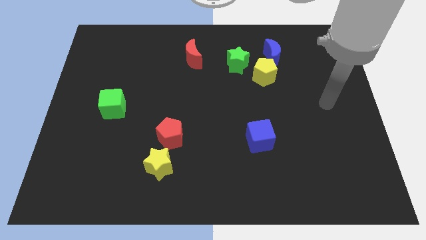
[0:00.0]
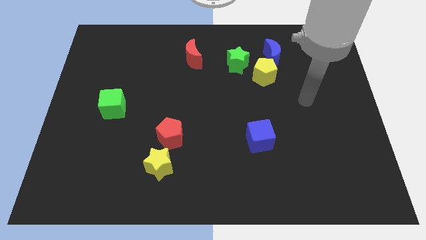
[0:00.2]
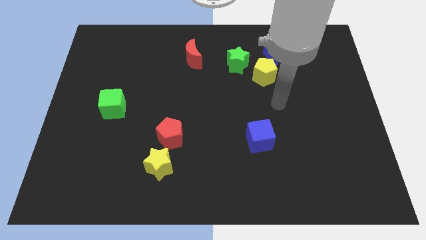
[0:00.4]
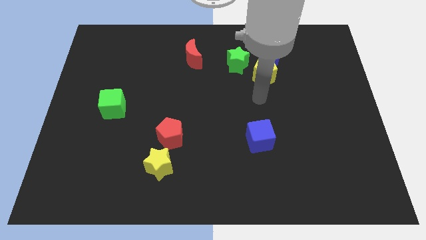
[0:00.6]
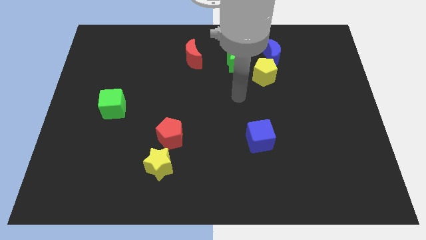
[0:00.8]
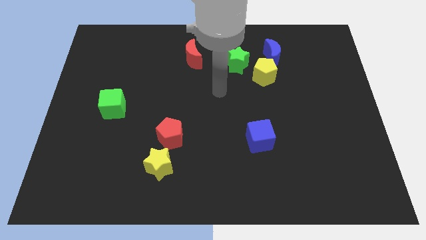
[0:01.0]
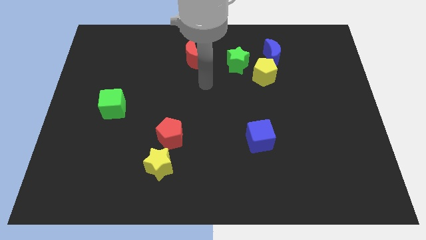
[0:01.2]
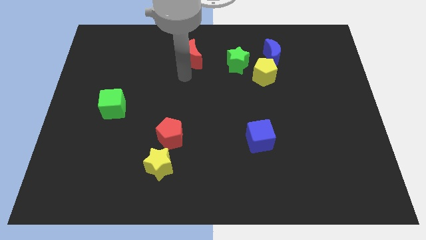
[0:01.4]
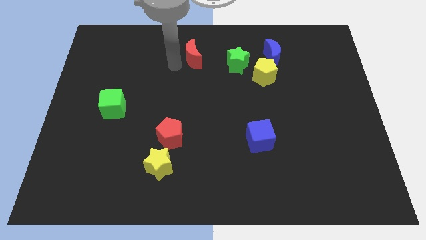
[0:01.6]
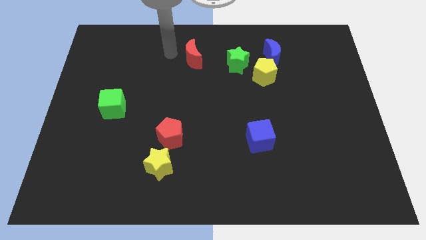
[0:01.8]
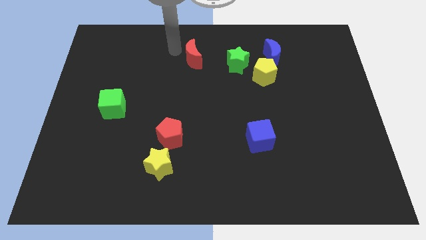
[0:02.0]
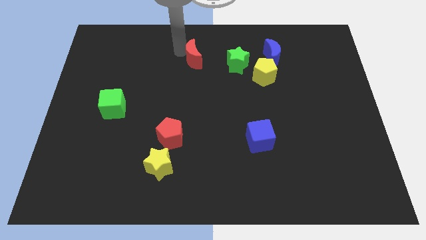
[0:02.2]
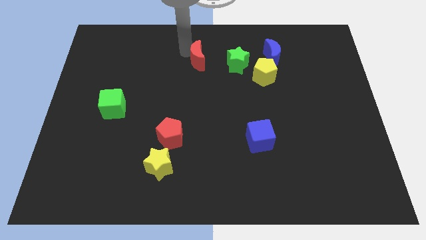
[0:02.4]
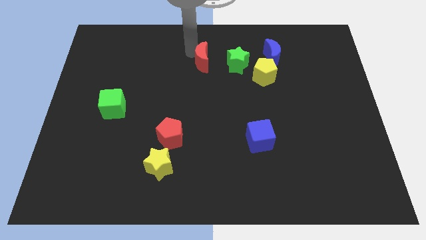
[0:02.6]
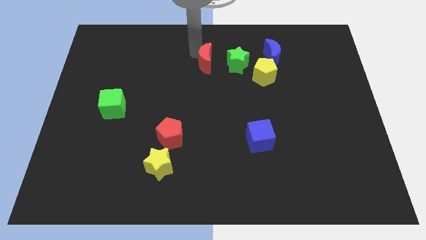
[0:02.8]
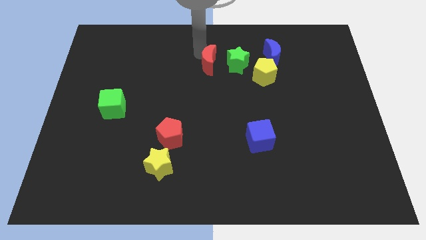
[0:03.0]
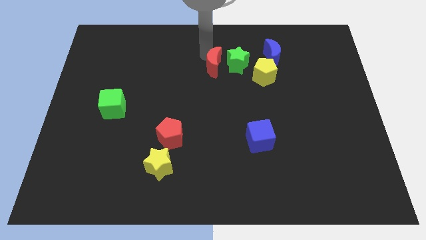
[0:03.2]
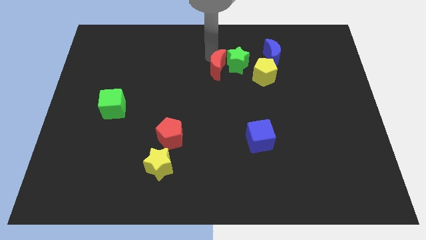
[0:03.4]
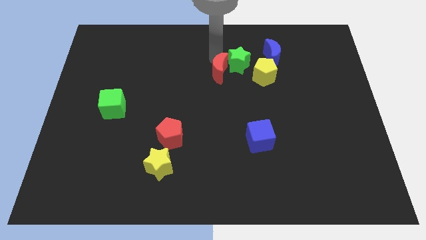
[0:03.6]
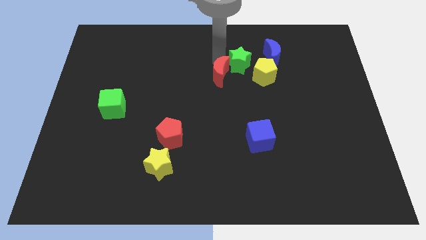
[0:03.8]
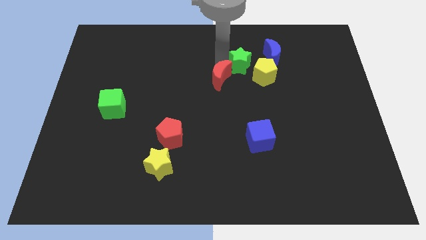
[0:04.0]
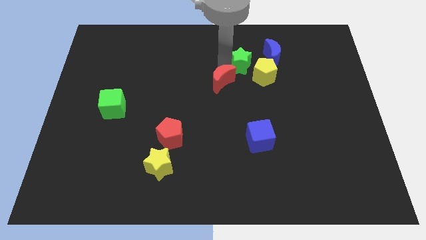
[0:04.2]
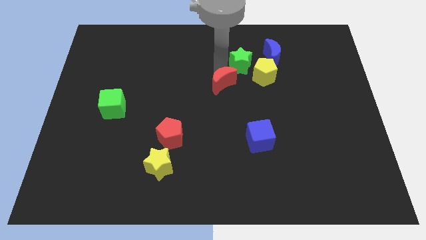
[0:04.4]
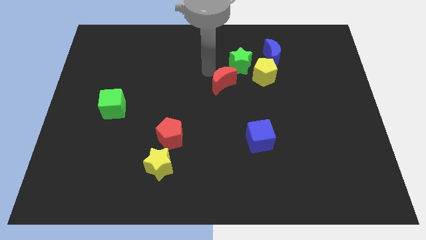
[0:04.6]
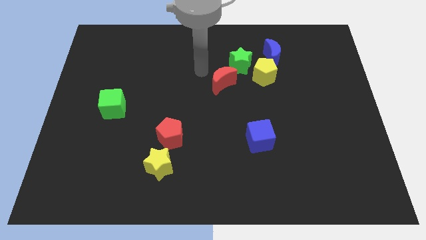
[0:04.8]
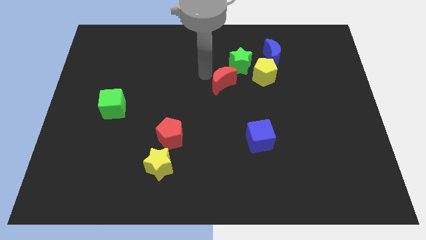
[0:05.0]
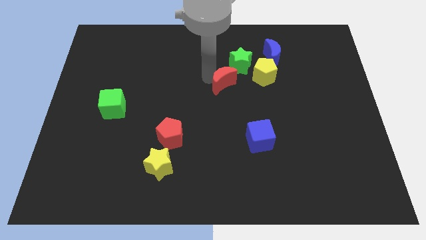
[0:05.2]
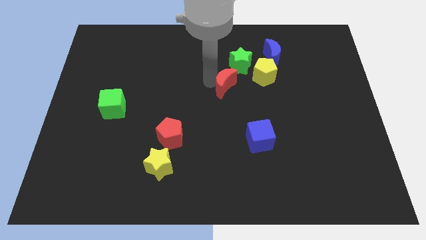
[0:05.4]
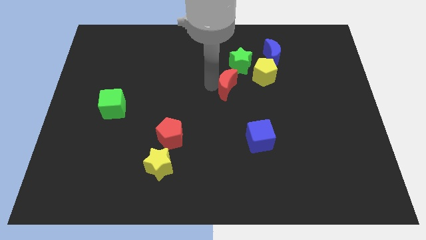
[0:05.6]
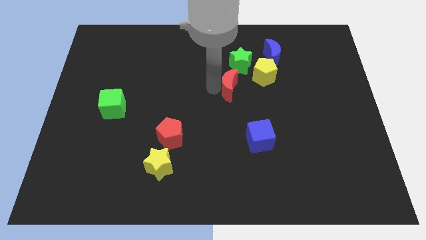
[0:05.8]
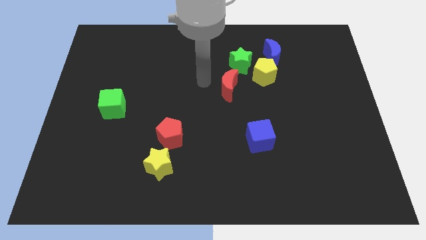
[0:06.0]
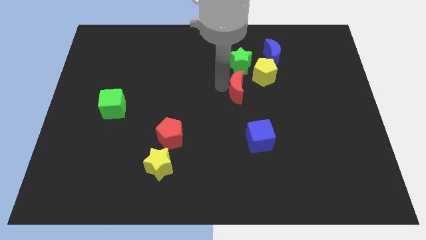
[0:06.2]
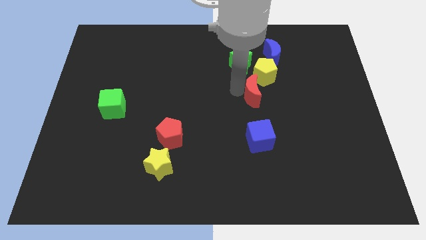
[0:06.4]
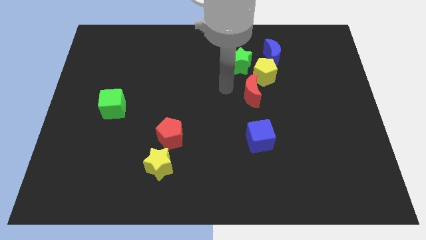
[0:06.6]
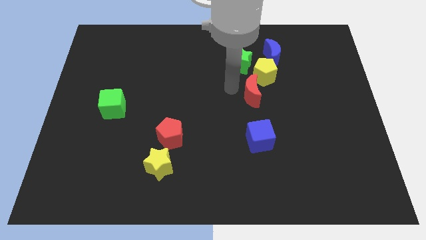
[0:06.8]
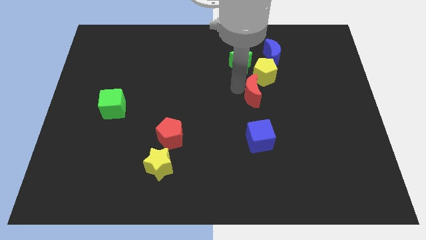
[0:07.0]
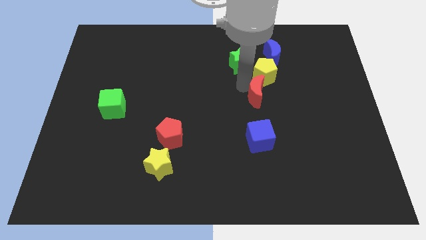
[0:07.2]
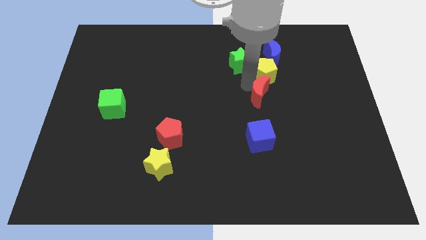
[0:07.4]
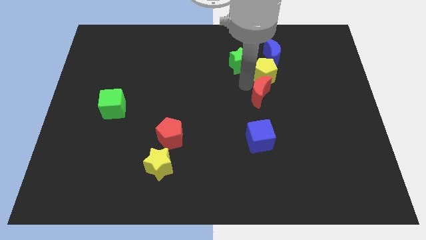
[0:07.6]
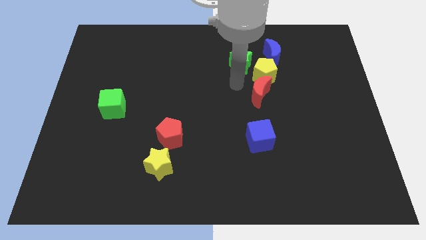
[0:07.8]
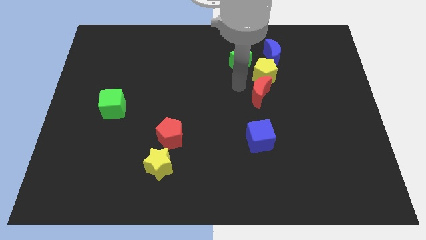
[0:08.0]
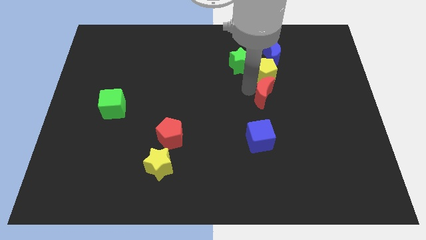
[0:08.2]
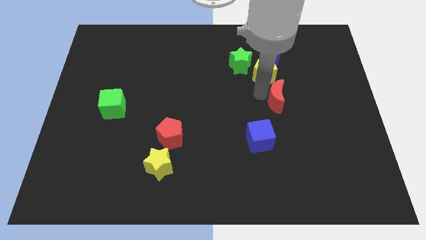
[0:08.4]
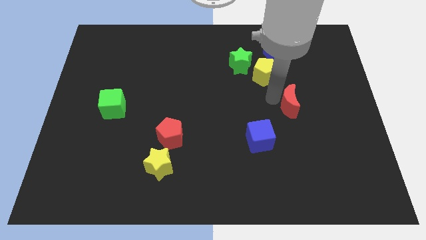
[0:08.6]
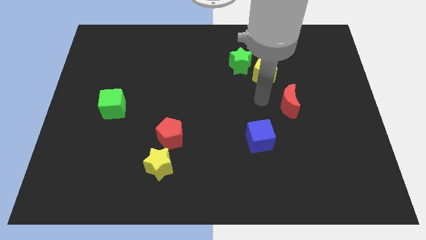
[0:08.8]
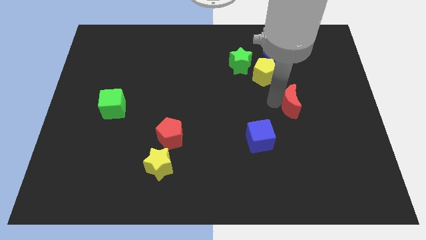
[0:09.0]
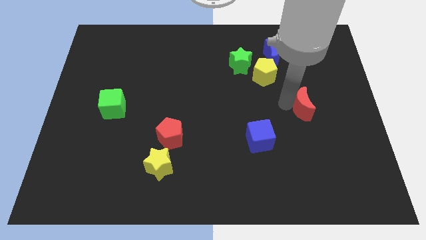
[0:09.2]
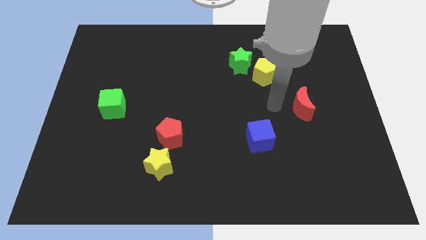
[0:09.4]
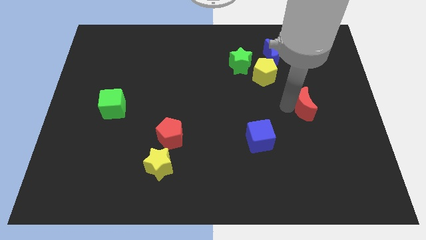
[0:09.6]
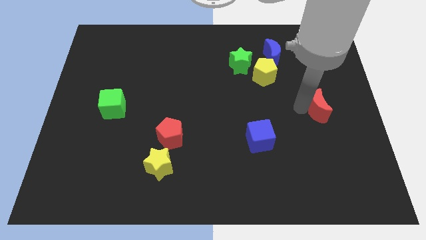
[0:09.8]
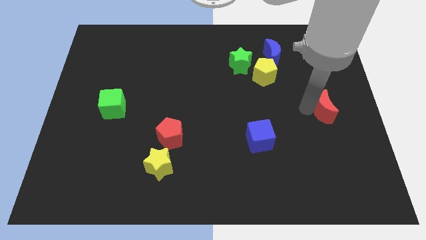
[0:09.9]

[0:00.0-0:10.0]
push the red moon to the right side of the board

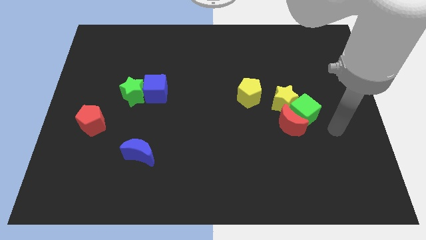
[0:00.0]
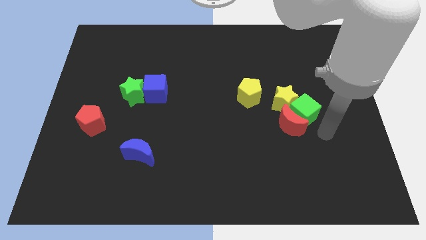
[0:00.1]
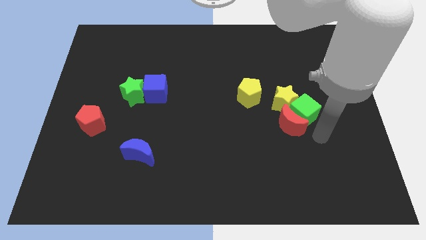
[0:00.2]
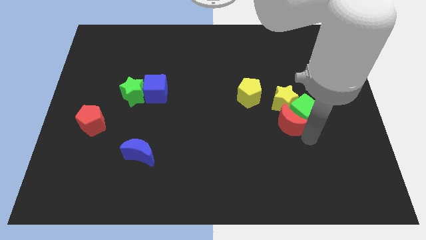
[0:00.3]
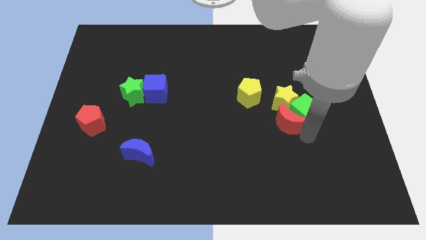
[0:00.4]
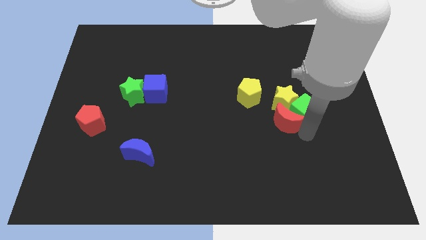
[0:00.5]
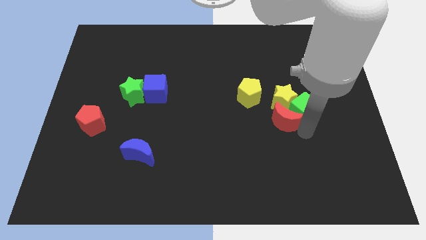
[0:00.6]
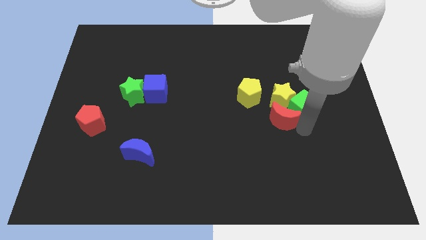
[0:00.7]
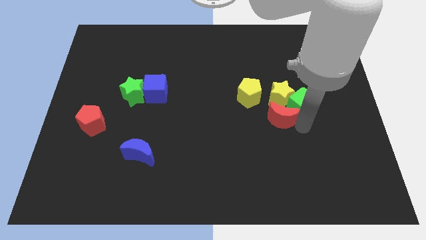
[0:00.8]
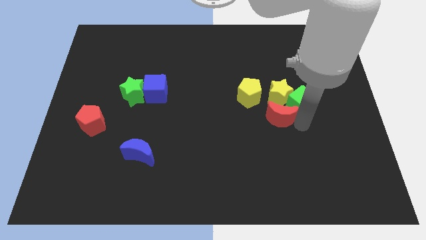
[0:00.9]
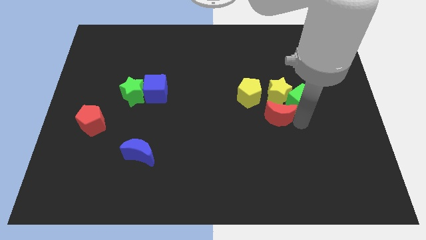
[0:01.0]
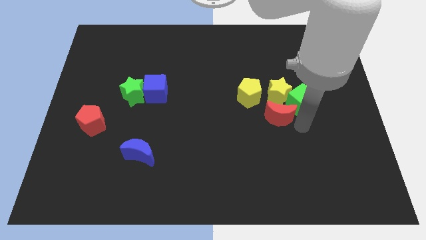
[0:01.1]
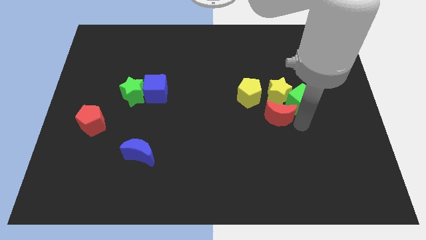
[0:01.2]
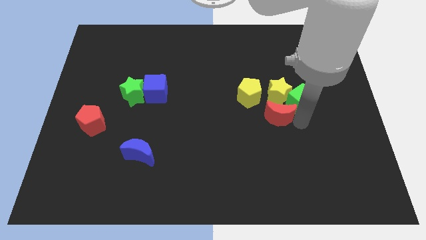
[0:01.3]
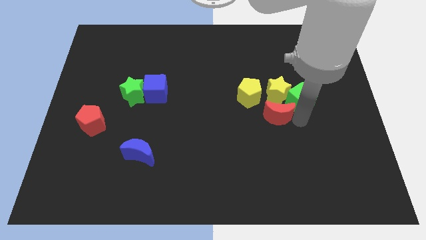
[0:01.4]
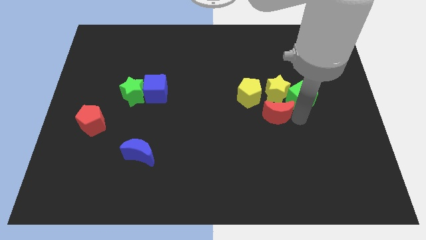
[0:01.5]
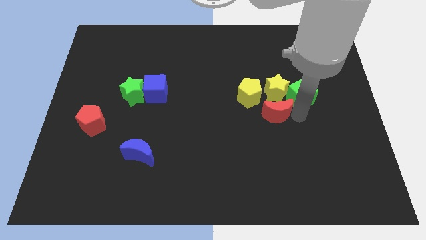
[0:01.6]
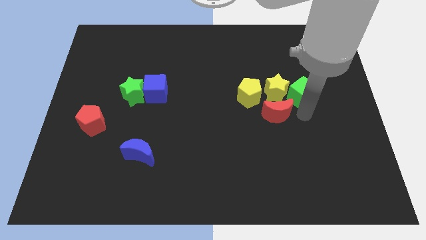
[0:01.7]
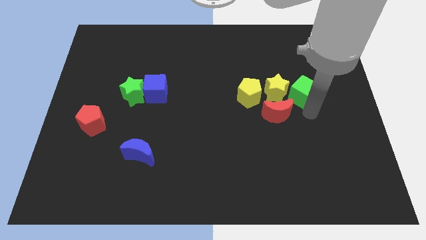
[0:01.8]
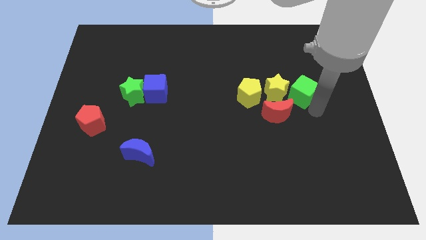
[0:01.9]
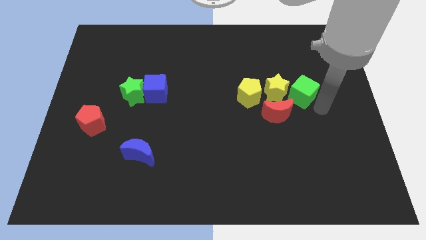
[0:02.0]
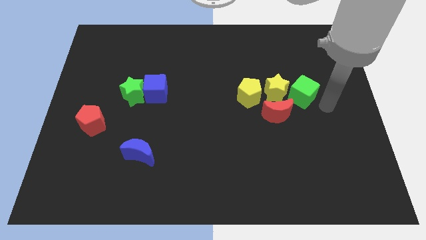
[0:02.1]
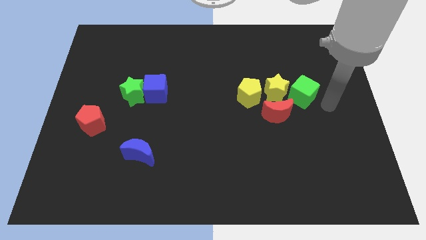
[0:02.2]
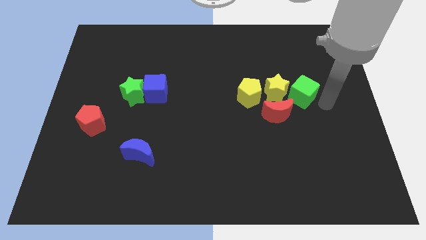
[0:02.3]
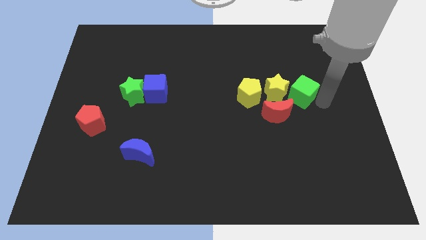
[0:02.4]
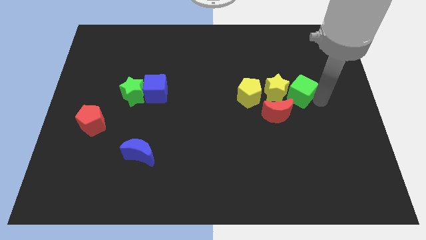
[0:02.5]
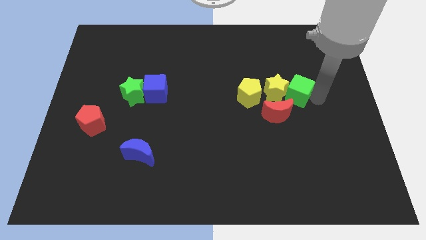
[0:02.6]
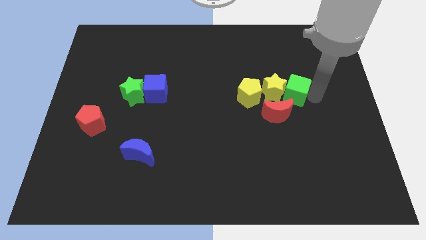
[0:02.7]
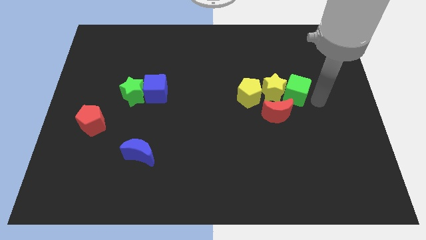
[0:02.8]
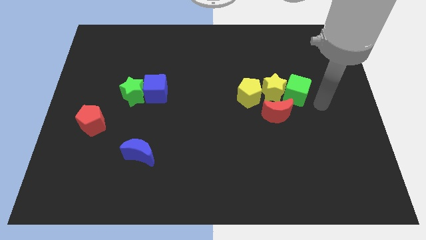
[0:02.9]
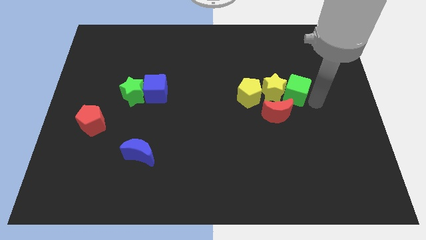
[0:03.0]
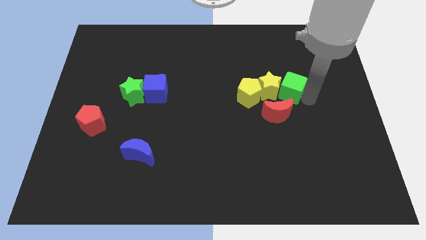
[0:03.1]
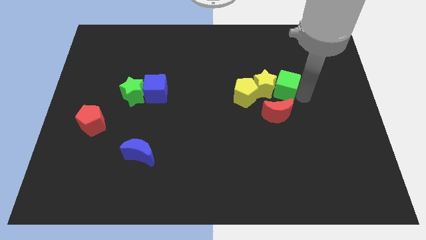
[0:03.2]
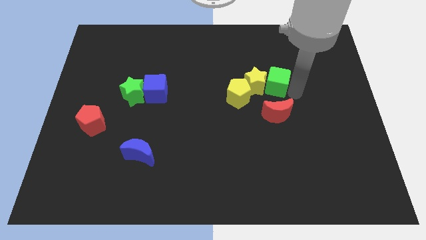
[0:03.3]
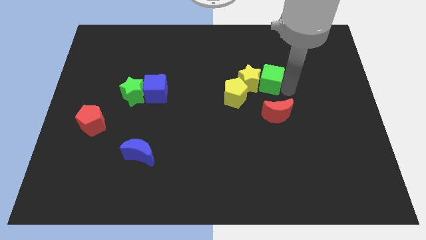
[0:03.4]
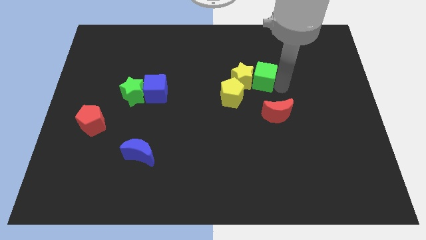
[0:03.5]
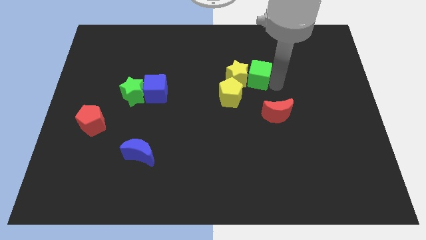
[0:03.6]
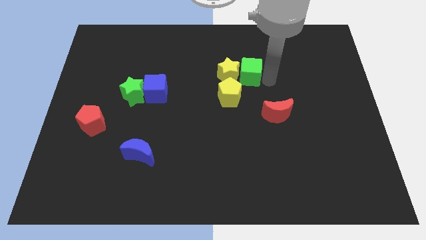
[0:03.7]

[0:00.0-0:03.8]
move the green cube to the center of the board
